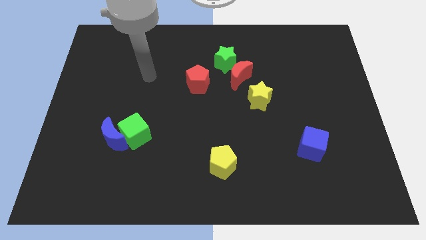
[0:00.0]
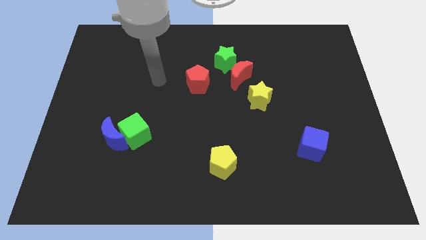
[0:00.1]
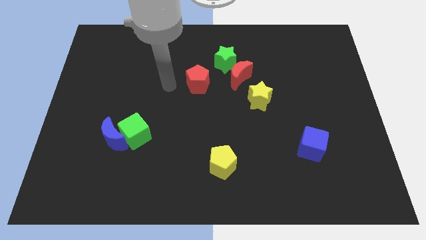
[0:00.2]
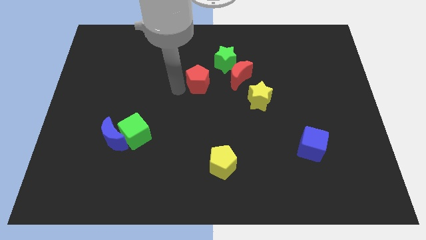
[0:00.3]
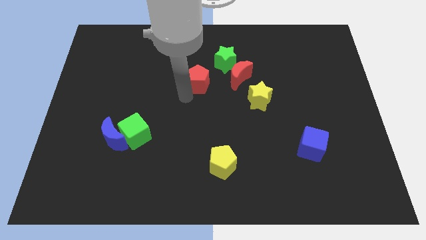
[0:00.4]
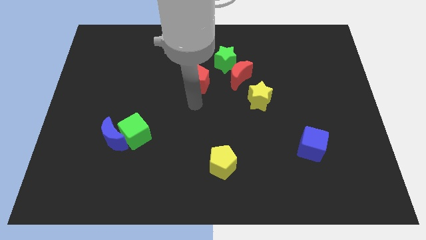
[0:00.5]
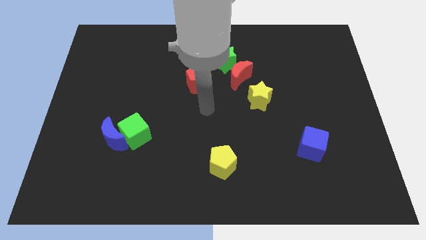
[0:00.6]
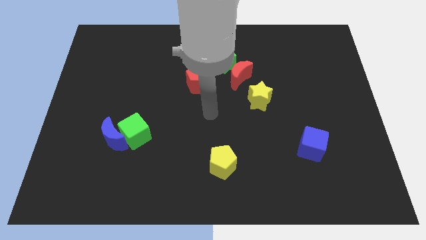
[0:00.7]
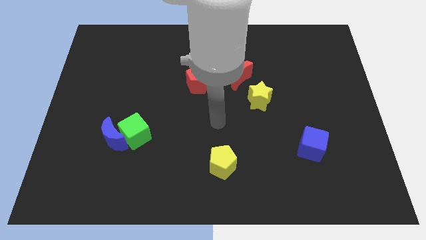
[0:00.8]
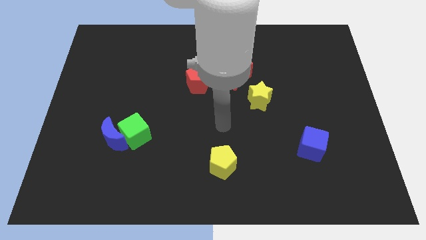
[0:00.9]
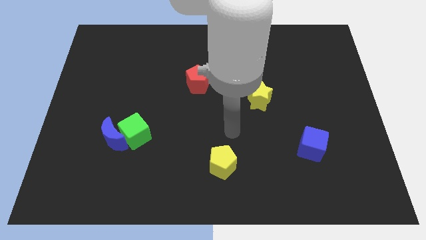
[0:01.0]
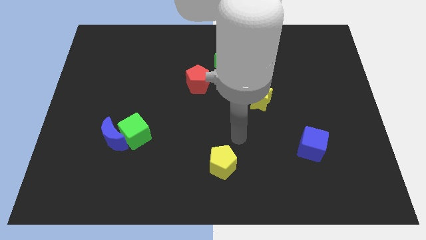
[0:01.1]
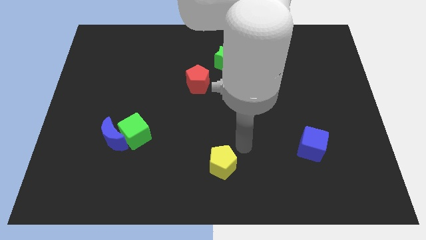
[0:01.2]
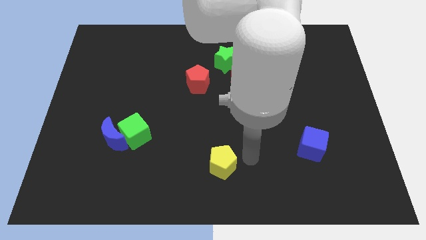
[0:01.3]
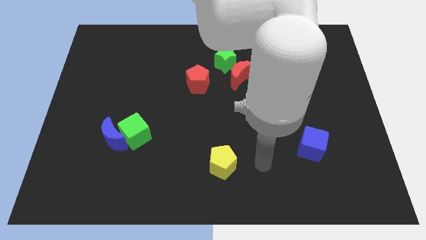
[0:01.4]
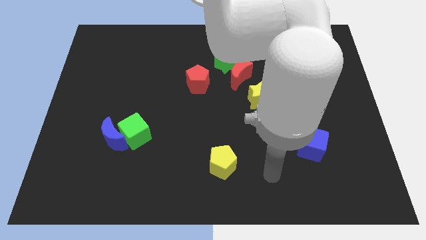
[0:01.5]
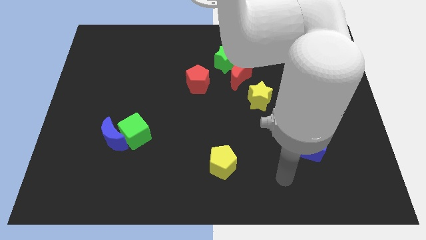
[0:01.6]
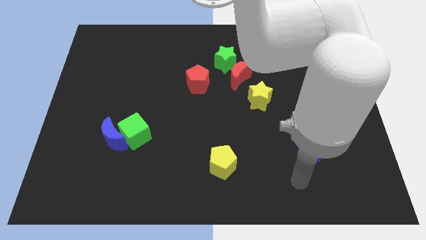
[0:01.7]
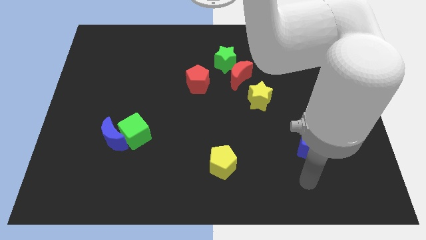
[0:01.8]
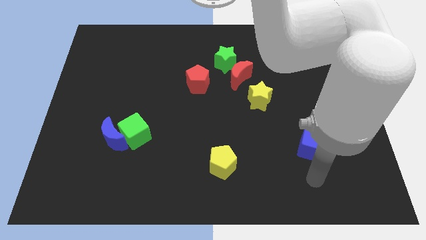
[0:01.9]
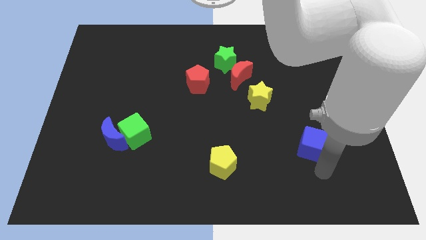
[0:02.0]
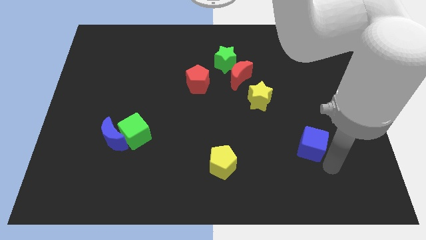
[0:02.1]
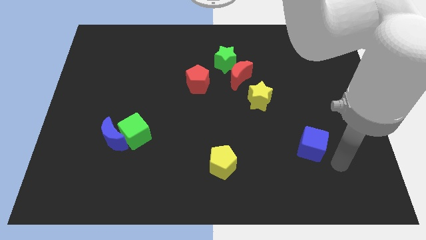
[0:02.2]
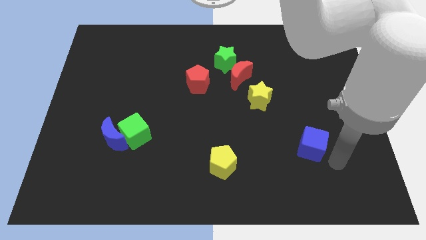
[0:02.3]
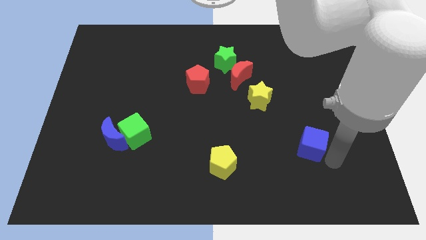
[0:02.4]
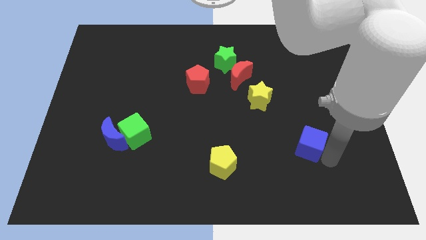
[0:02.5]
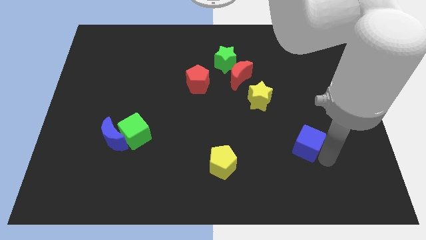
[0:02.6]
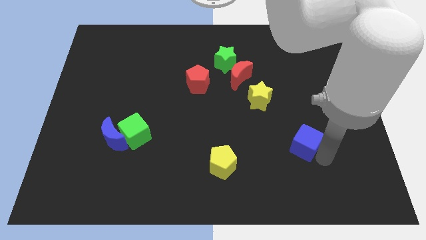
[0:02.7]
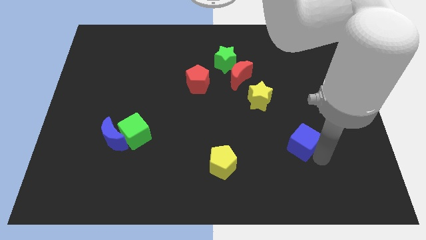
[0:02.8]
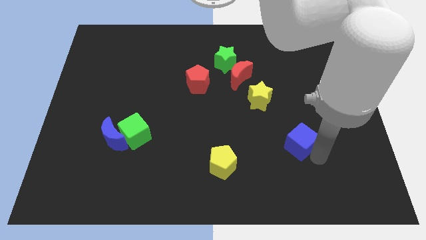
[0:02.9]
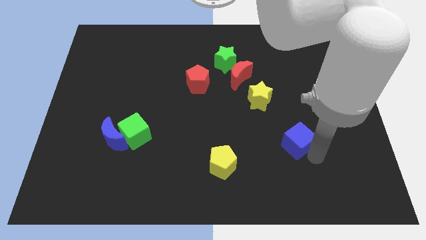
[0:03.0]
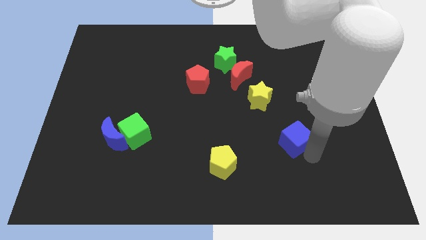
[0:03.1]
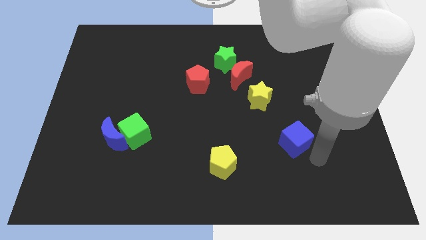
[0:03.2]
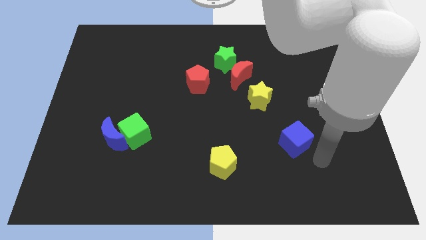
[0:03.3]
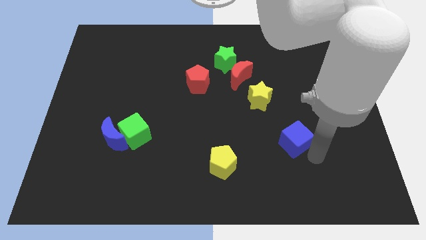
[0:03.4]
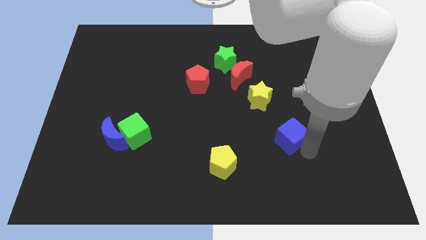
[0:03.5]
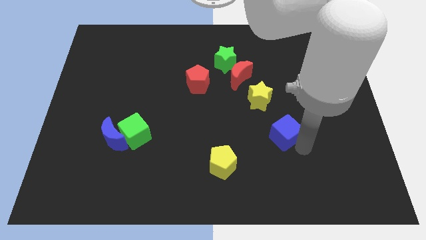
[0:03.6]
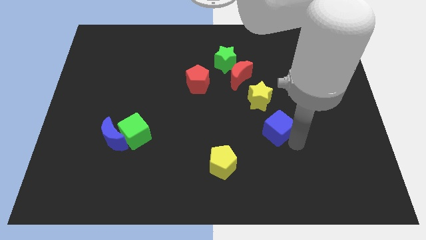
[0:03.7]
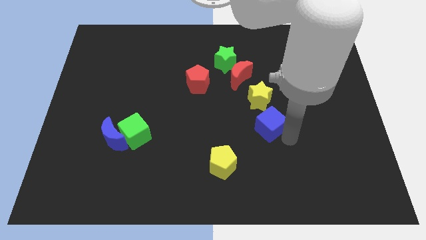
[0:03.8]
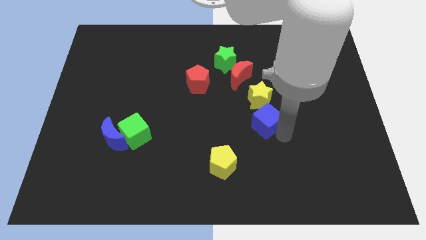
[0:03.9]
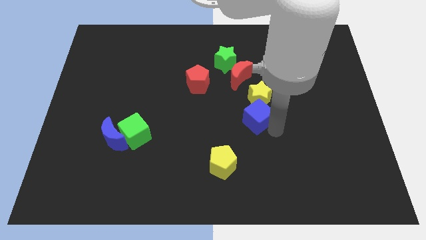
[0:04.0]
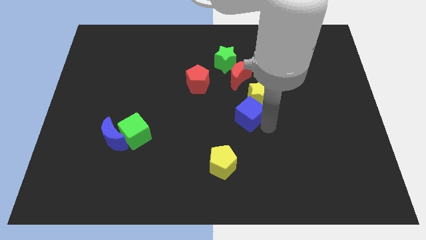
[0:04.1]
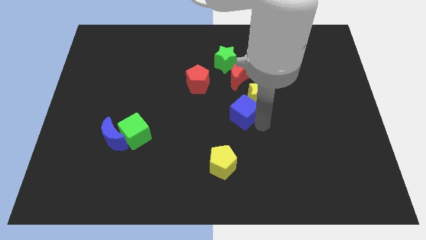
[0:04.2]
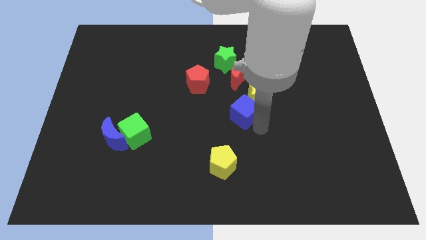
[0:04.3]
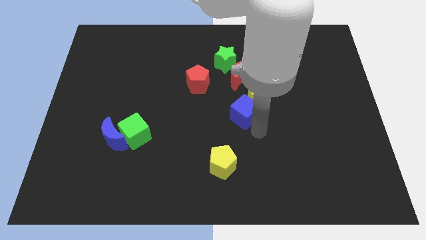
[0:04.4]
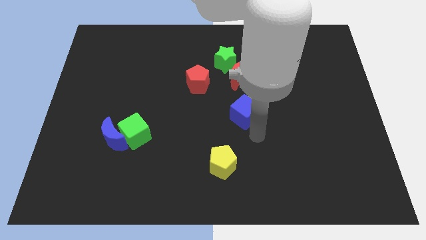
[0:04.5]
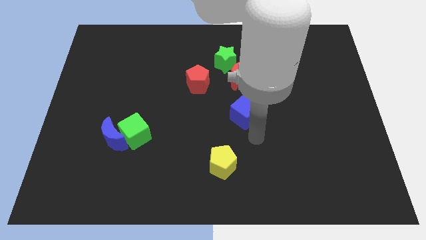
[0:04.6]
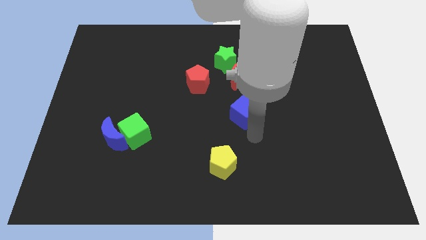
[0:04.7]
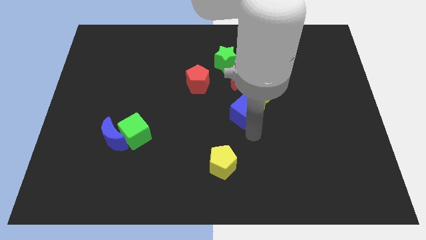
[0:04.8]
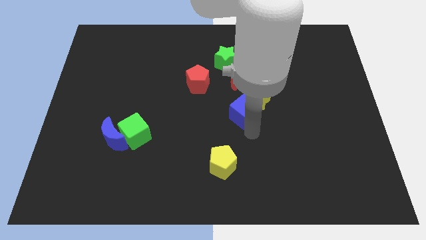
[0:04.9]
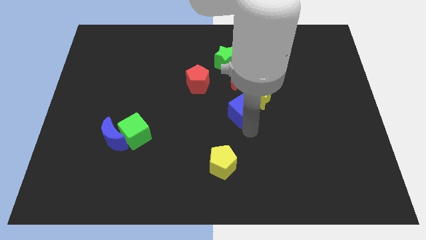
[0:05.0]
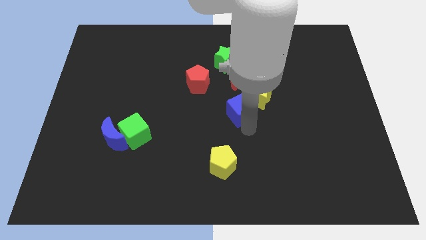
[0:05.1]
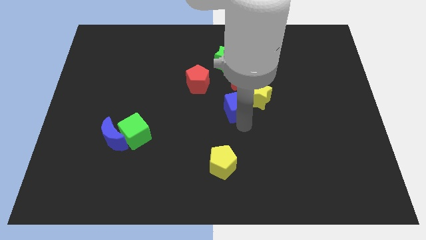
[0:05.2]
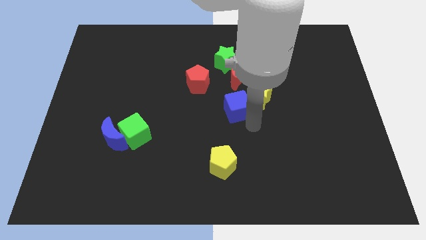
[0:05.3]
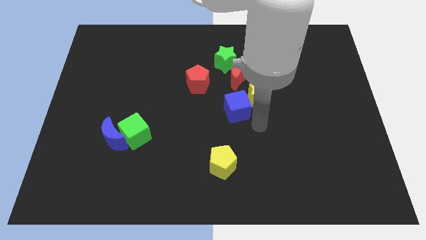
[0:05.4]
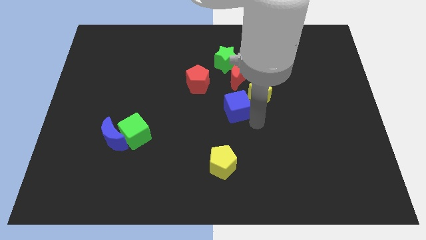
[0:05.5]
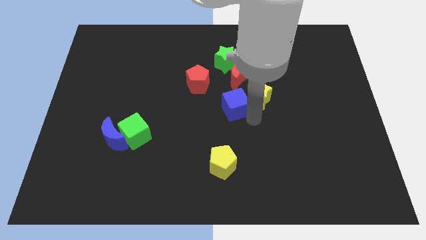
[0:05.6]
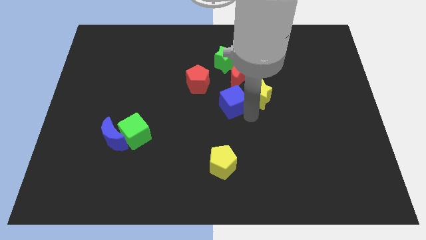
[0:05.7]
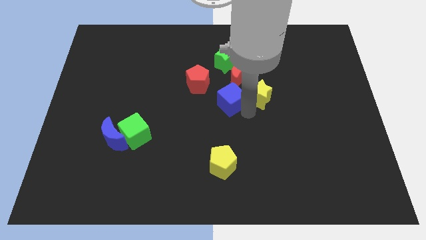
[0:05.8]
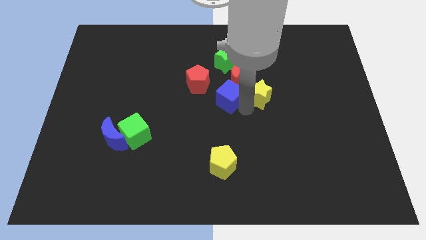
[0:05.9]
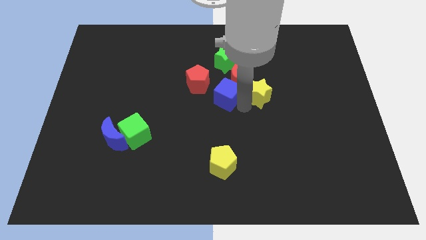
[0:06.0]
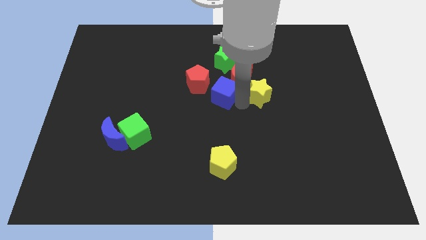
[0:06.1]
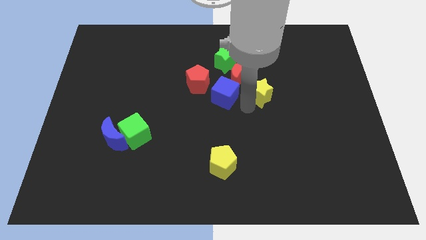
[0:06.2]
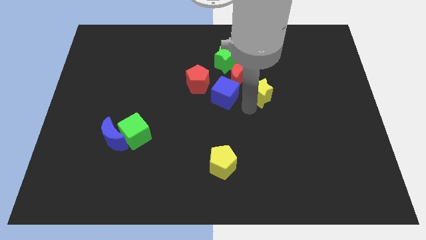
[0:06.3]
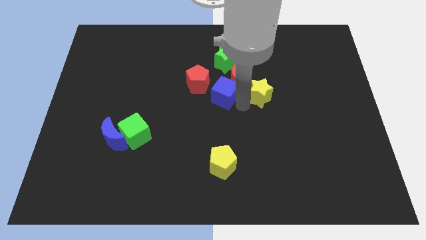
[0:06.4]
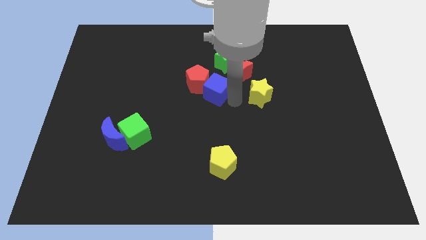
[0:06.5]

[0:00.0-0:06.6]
push the blue cube close to the red pentagon

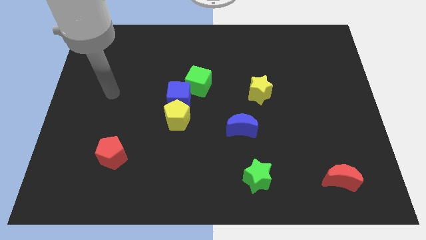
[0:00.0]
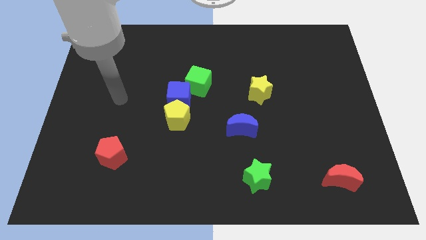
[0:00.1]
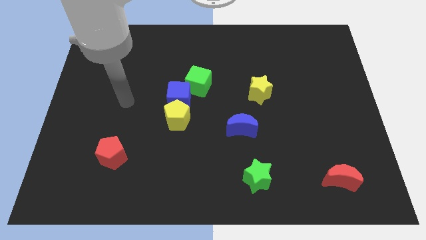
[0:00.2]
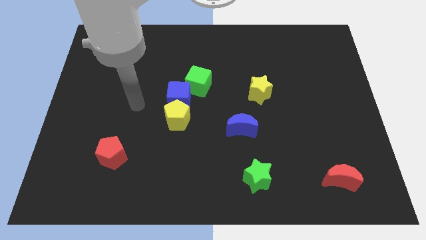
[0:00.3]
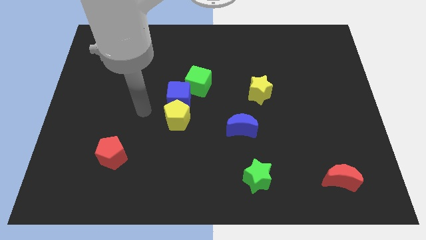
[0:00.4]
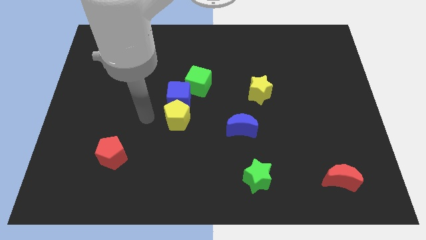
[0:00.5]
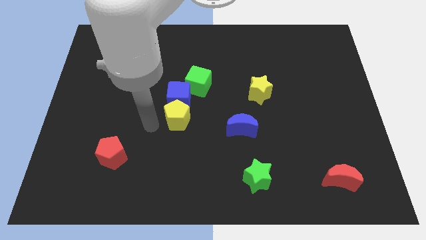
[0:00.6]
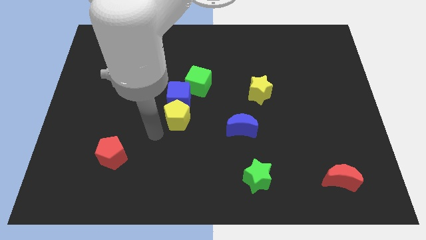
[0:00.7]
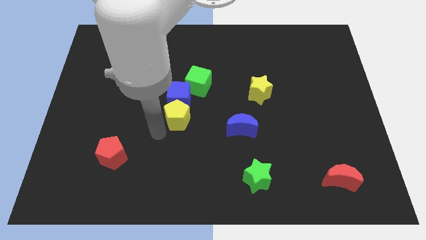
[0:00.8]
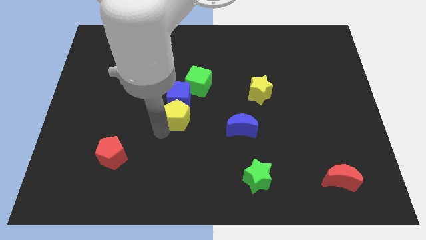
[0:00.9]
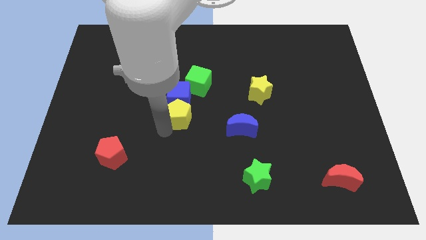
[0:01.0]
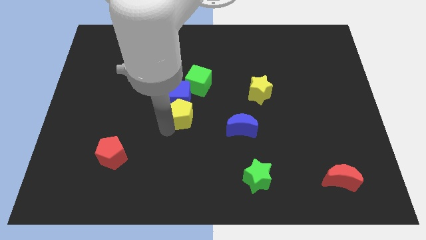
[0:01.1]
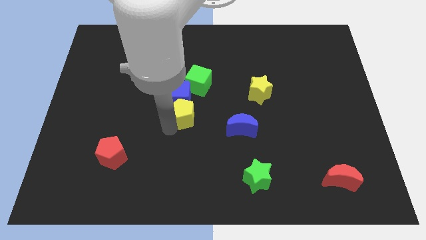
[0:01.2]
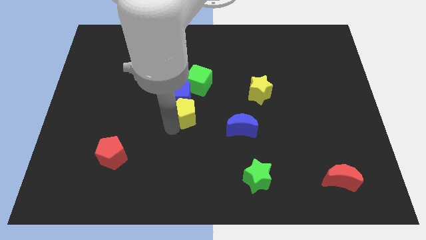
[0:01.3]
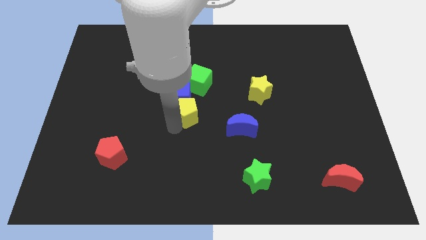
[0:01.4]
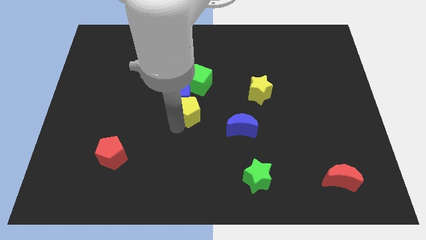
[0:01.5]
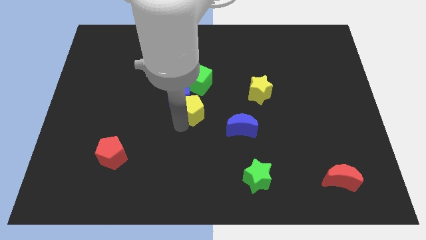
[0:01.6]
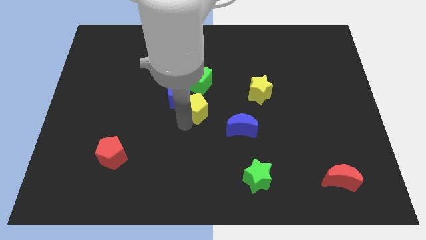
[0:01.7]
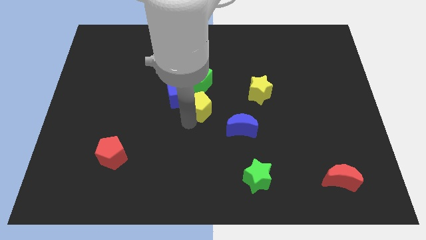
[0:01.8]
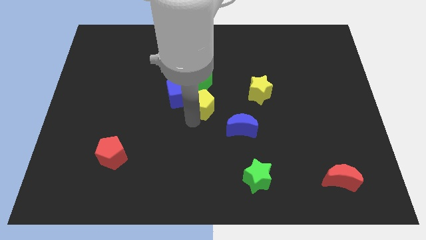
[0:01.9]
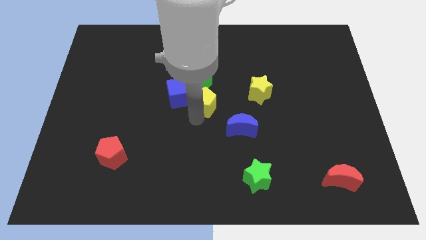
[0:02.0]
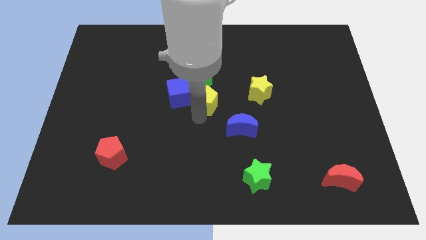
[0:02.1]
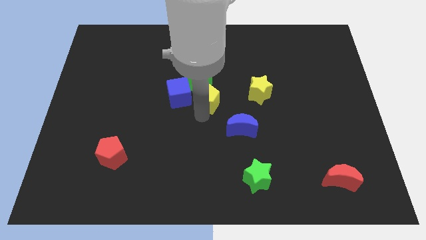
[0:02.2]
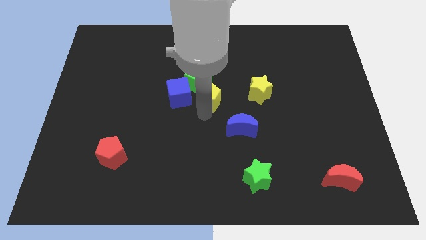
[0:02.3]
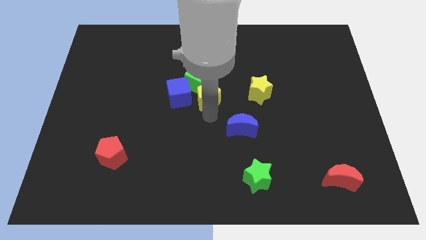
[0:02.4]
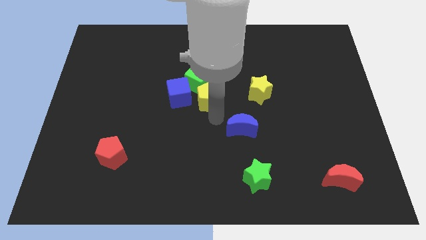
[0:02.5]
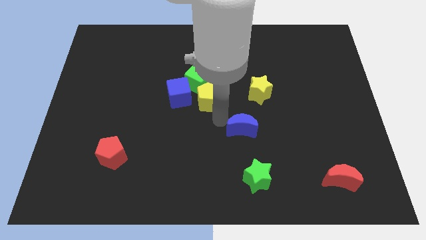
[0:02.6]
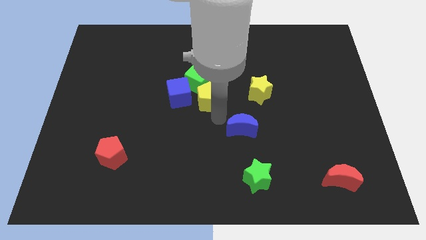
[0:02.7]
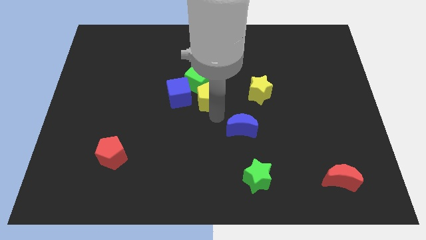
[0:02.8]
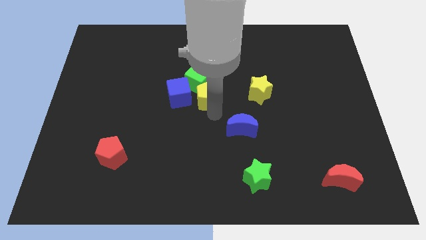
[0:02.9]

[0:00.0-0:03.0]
push the yellow pentagon towards the green cube
